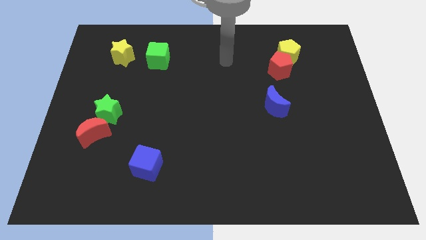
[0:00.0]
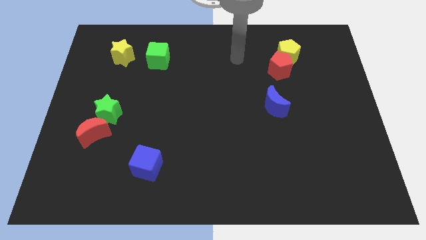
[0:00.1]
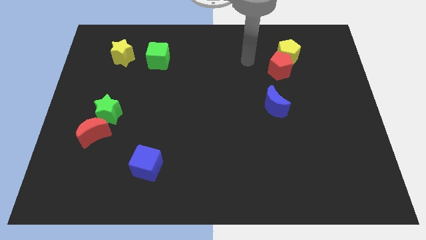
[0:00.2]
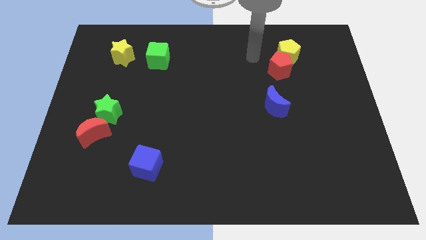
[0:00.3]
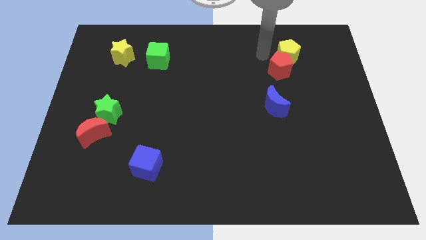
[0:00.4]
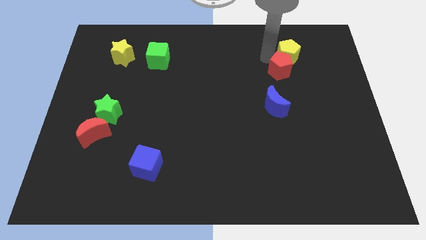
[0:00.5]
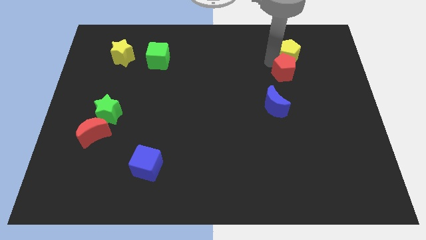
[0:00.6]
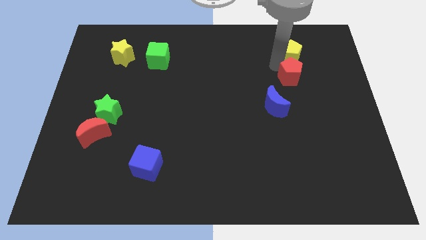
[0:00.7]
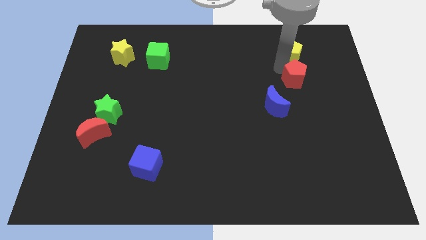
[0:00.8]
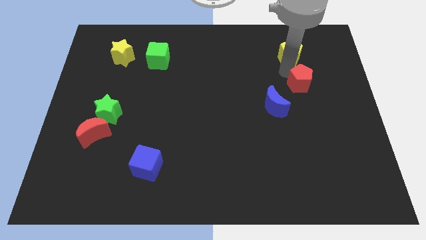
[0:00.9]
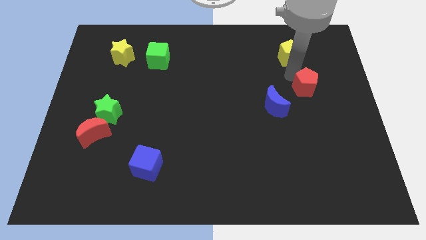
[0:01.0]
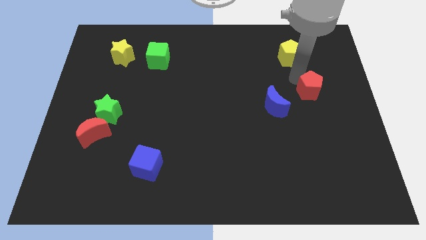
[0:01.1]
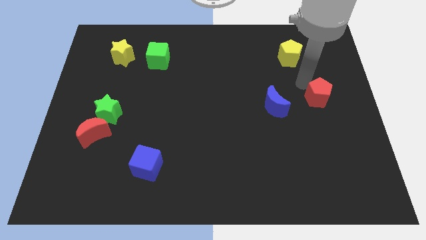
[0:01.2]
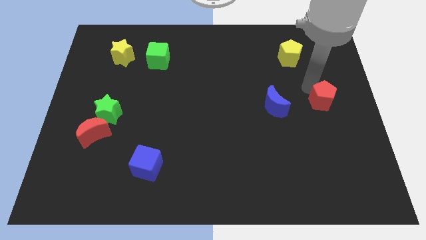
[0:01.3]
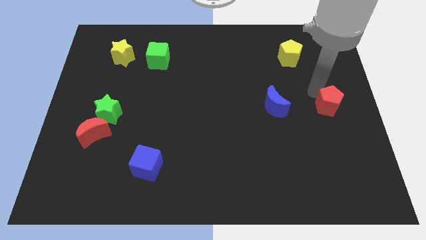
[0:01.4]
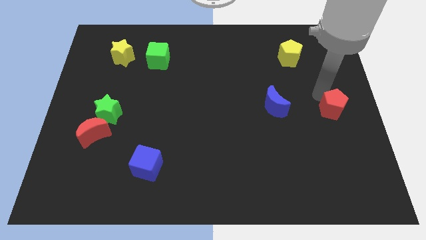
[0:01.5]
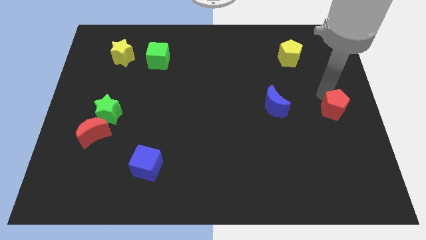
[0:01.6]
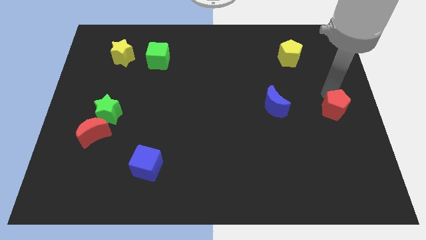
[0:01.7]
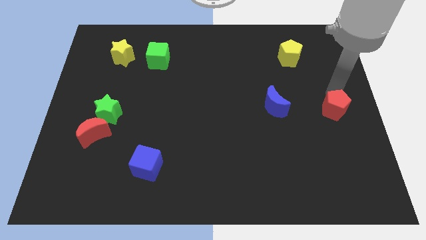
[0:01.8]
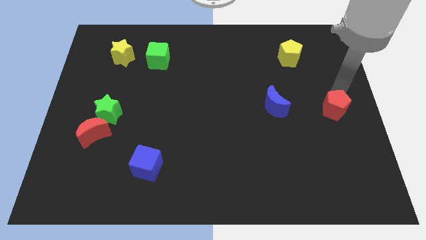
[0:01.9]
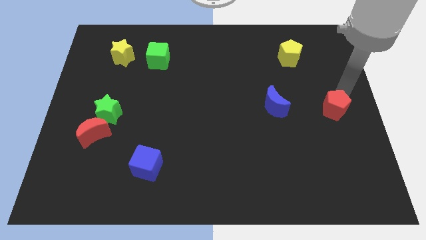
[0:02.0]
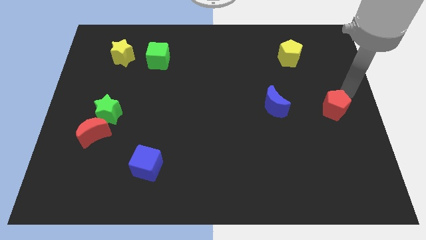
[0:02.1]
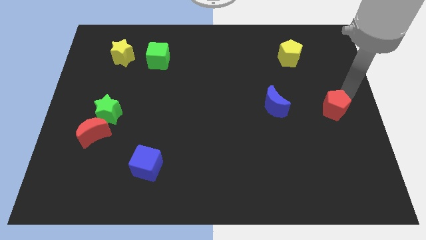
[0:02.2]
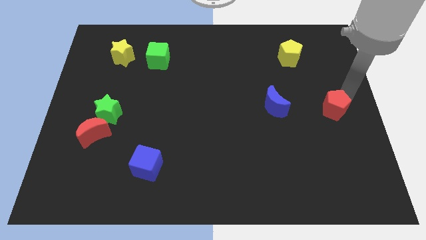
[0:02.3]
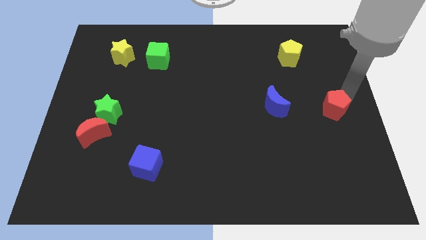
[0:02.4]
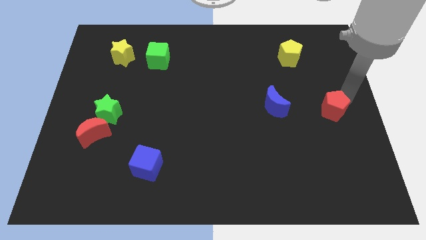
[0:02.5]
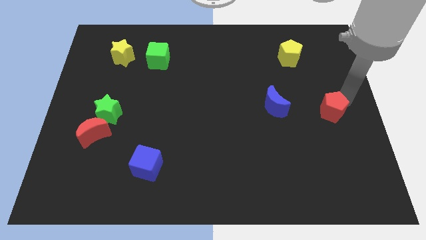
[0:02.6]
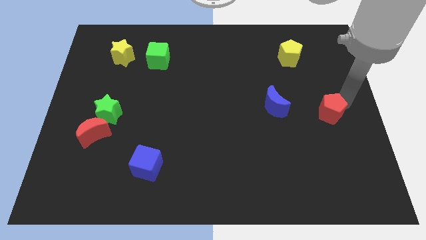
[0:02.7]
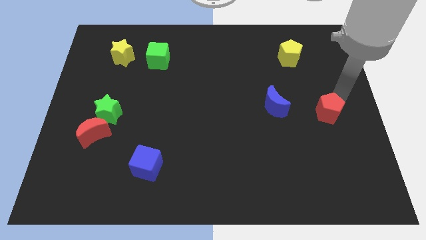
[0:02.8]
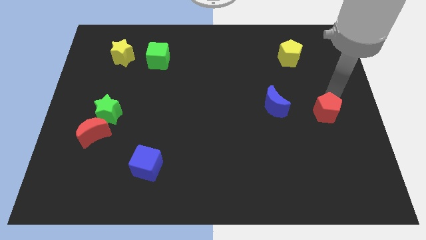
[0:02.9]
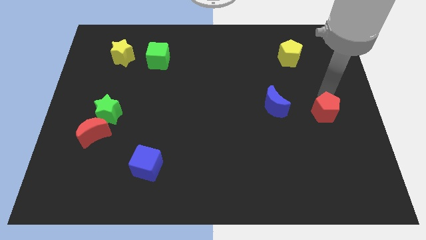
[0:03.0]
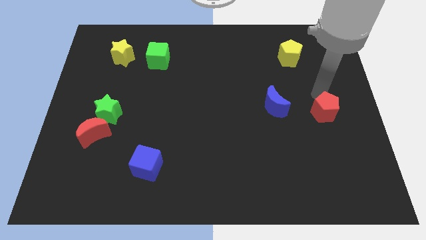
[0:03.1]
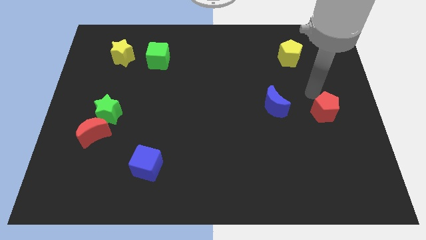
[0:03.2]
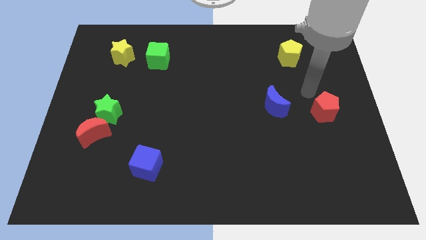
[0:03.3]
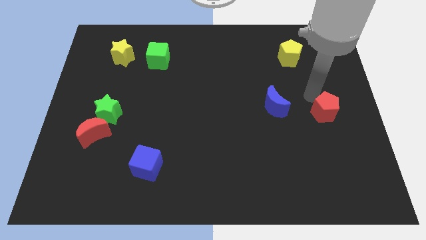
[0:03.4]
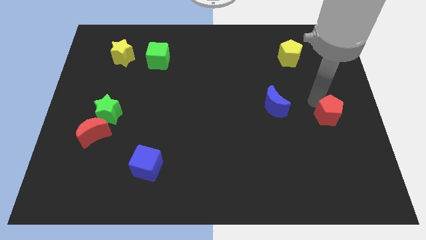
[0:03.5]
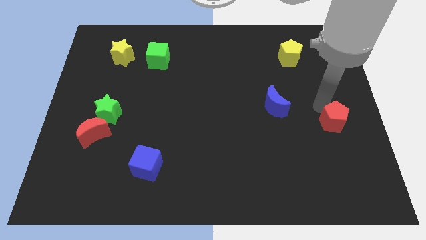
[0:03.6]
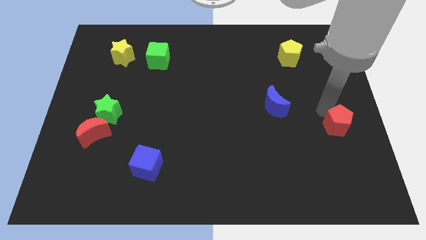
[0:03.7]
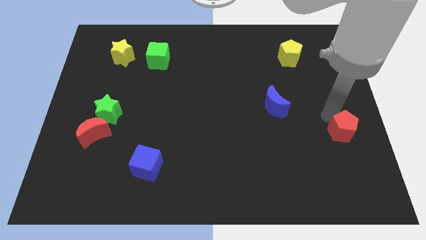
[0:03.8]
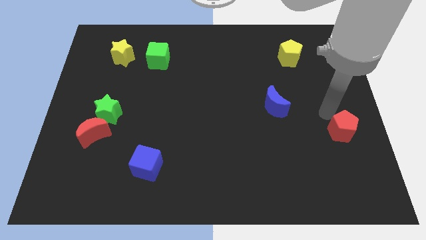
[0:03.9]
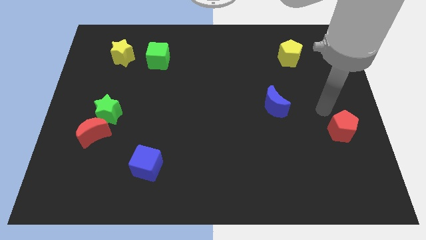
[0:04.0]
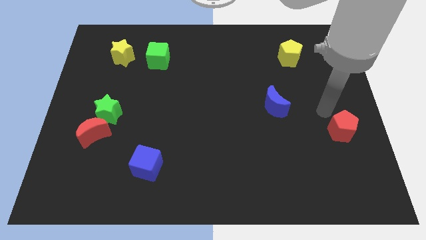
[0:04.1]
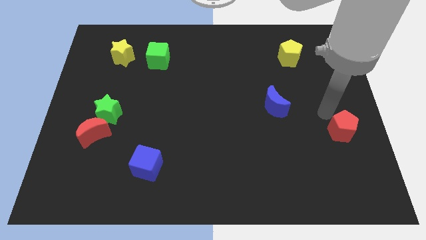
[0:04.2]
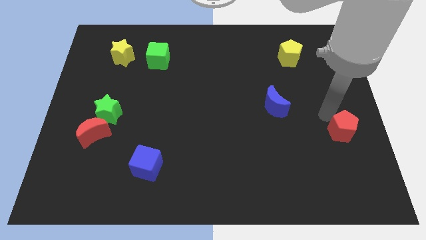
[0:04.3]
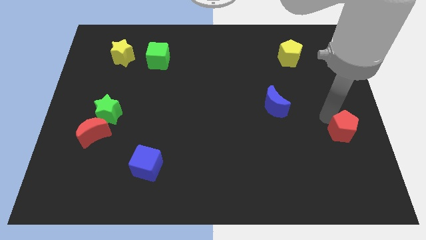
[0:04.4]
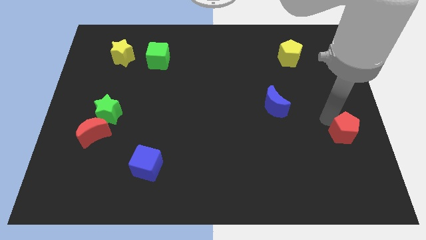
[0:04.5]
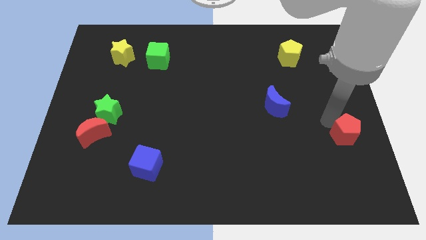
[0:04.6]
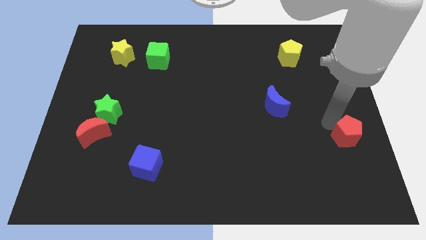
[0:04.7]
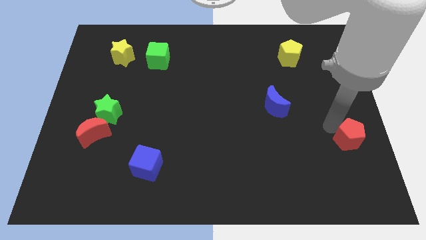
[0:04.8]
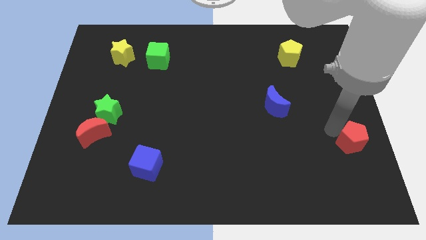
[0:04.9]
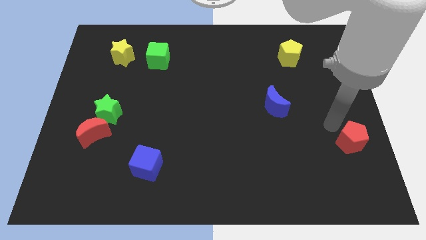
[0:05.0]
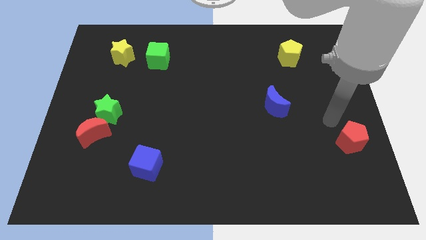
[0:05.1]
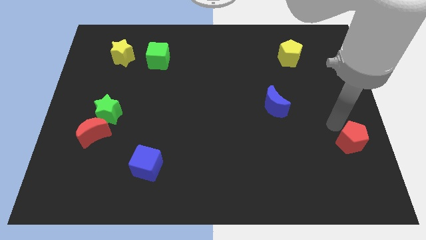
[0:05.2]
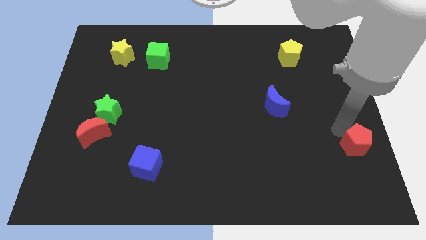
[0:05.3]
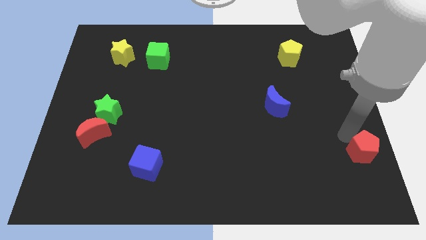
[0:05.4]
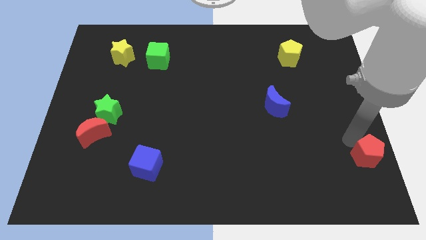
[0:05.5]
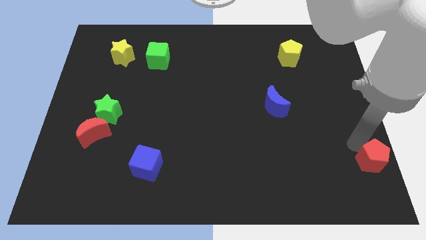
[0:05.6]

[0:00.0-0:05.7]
put the red pentagon to the bottom right of the board

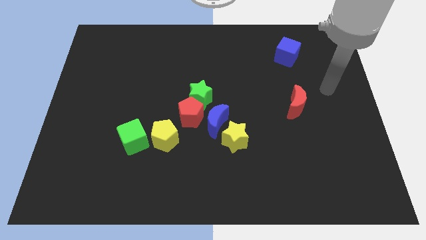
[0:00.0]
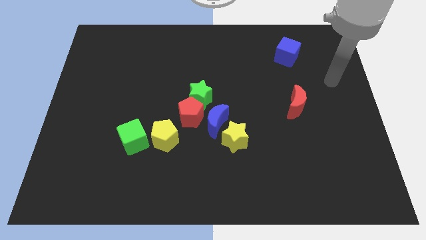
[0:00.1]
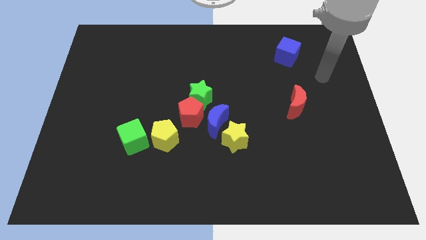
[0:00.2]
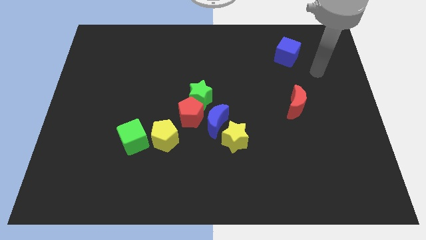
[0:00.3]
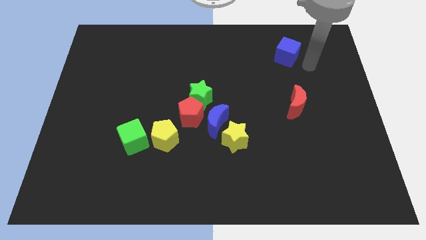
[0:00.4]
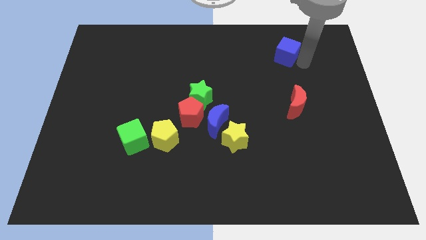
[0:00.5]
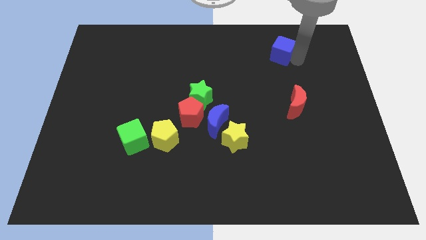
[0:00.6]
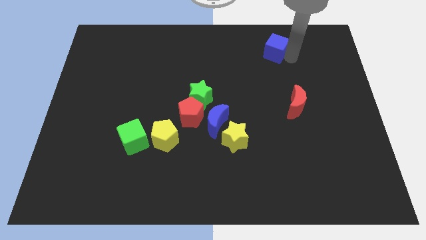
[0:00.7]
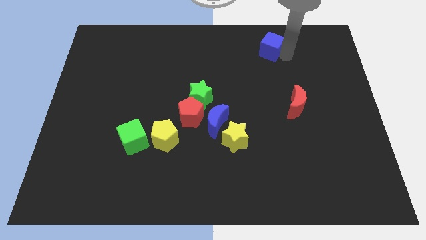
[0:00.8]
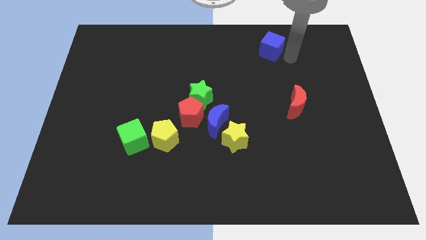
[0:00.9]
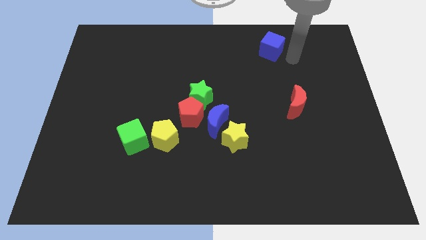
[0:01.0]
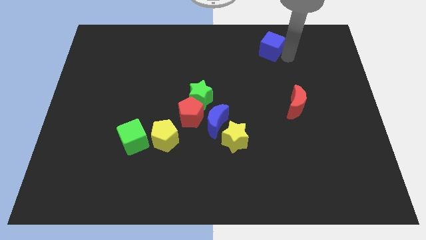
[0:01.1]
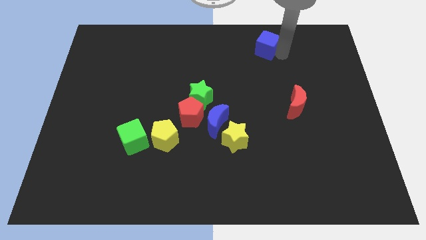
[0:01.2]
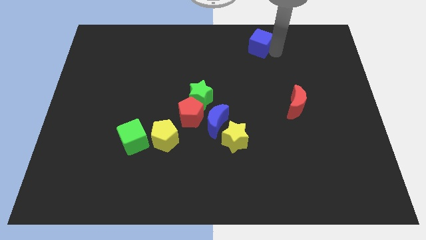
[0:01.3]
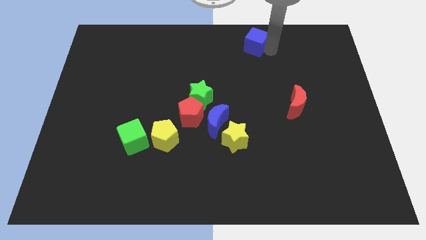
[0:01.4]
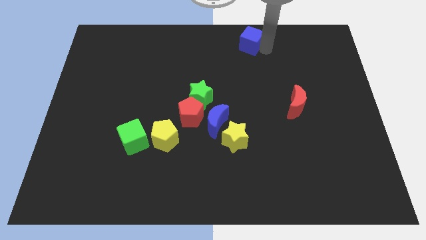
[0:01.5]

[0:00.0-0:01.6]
move the blue cube to the towards your base

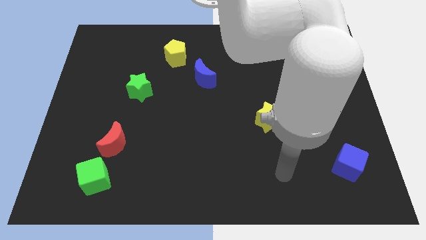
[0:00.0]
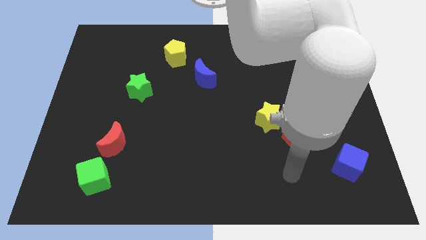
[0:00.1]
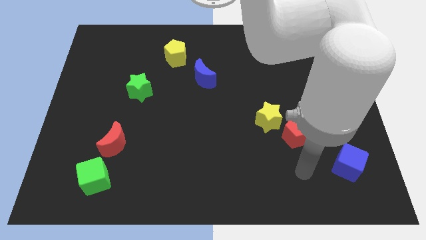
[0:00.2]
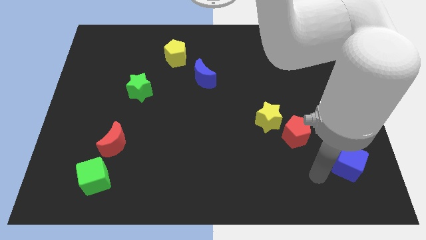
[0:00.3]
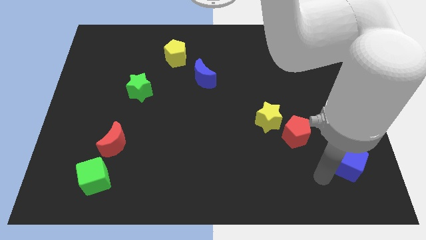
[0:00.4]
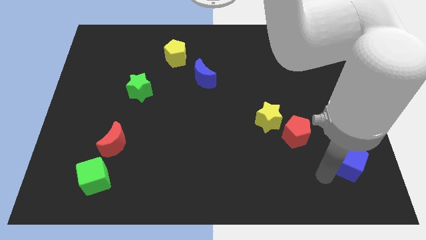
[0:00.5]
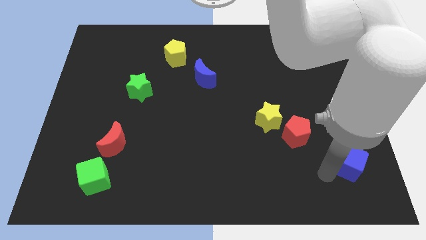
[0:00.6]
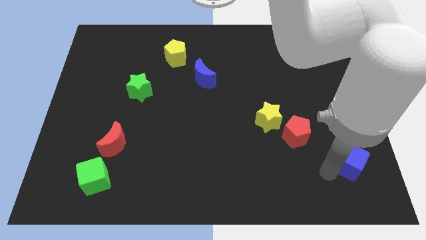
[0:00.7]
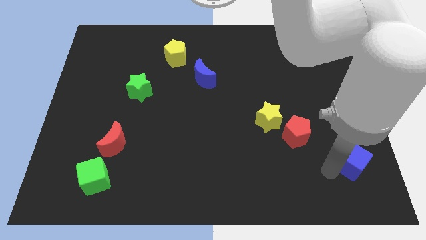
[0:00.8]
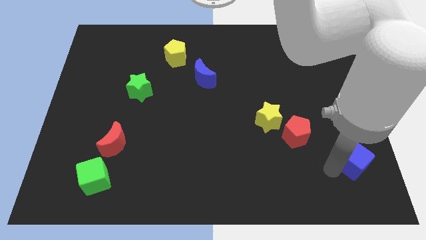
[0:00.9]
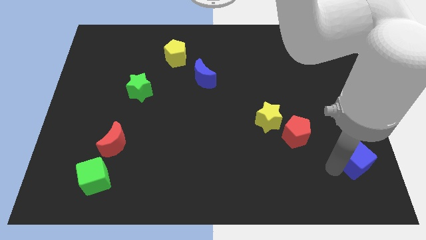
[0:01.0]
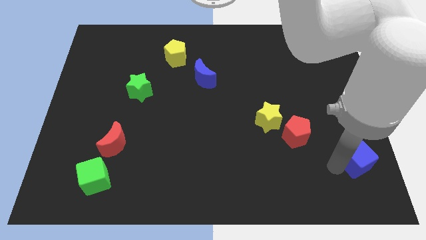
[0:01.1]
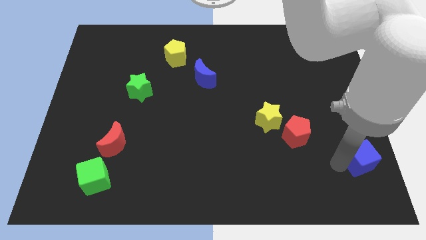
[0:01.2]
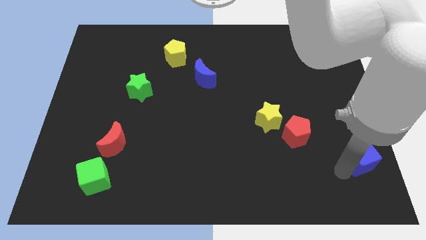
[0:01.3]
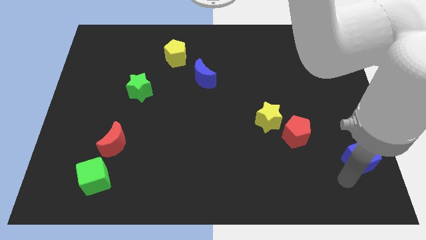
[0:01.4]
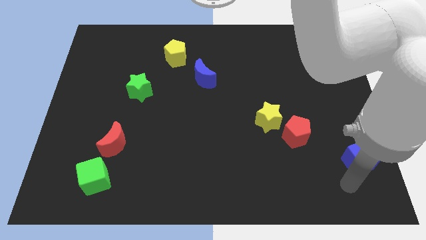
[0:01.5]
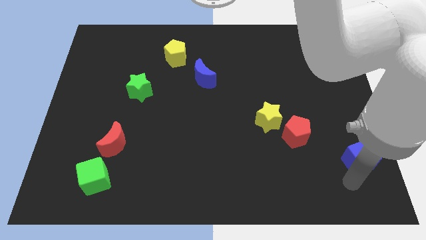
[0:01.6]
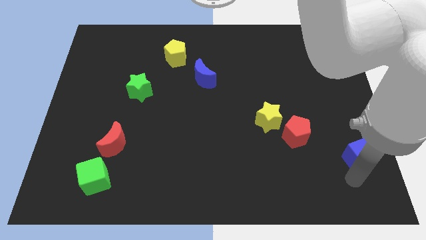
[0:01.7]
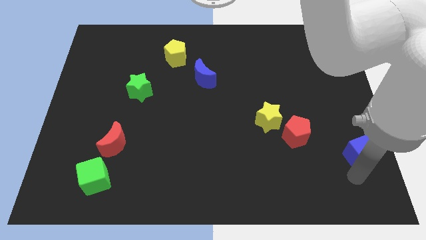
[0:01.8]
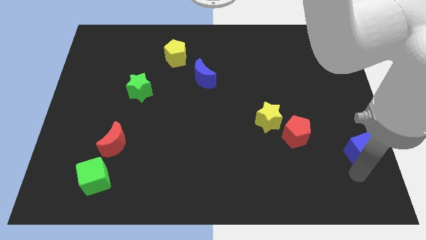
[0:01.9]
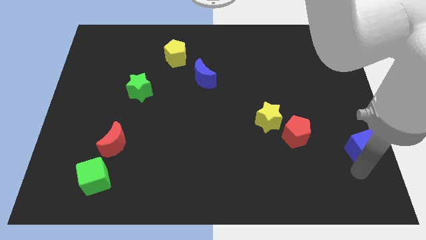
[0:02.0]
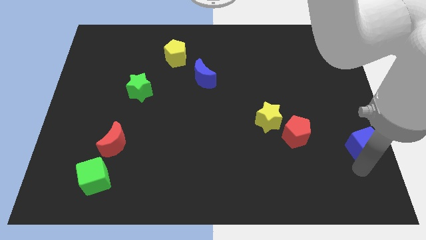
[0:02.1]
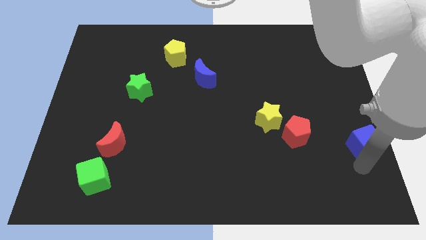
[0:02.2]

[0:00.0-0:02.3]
push the blue cube to the center right
